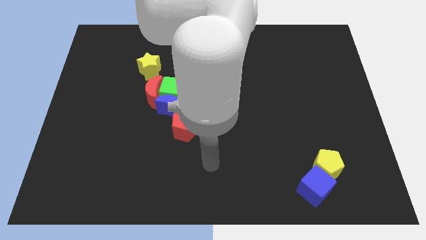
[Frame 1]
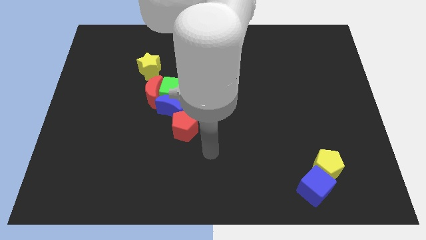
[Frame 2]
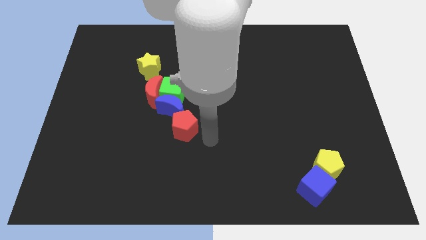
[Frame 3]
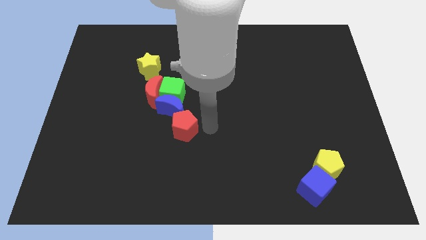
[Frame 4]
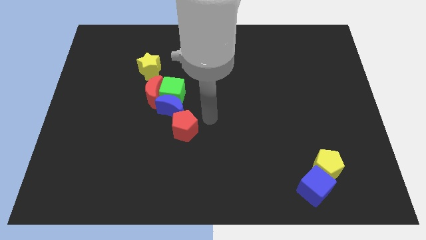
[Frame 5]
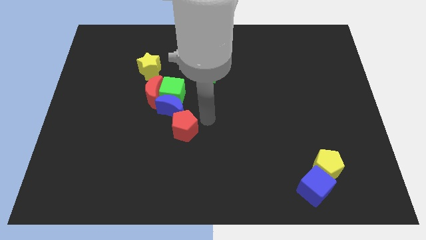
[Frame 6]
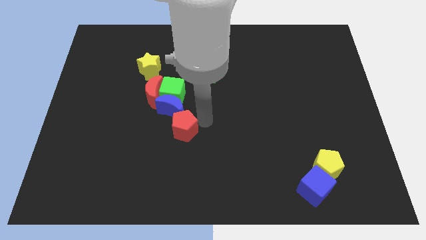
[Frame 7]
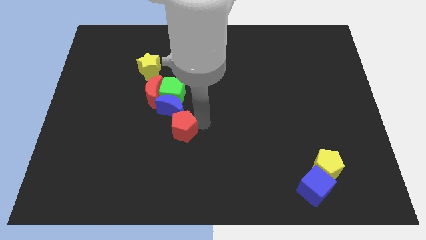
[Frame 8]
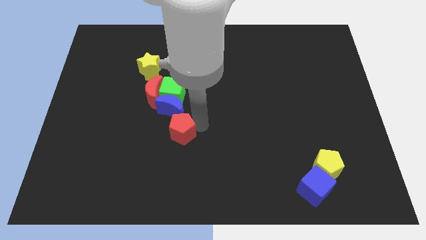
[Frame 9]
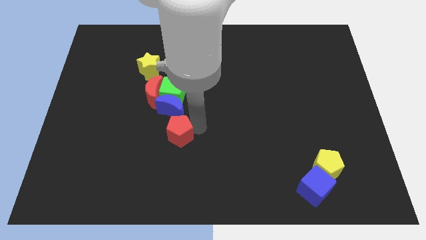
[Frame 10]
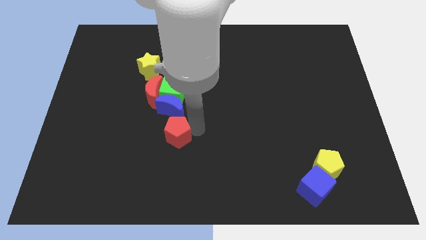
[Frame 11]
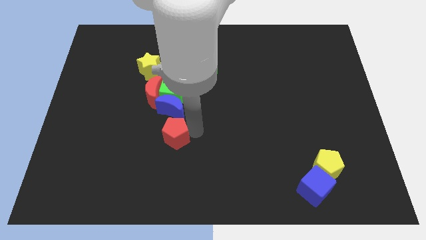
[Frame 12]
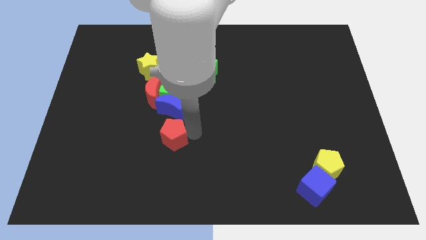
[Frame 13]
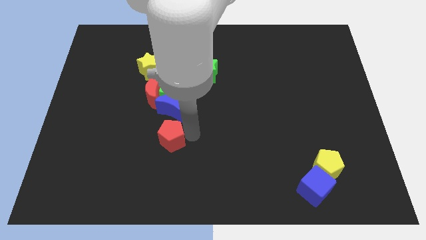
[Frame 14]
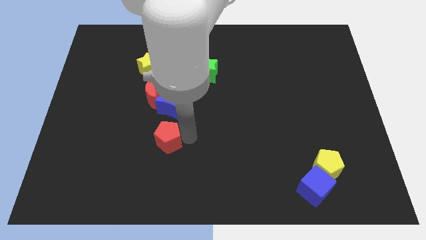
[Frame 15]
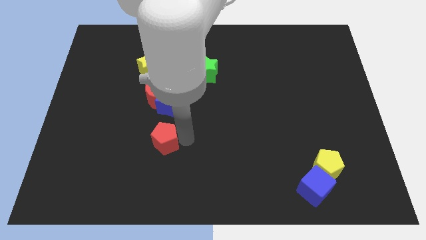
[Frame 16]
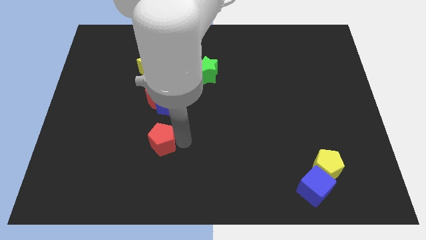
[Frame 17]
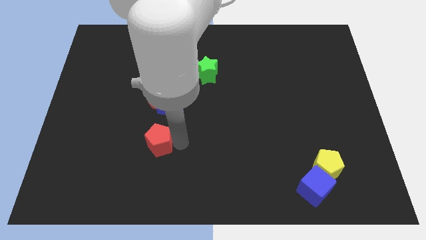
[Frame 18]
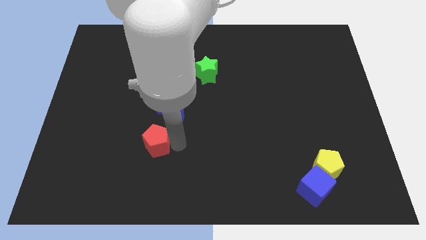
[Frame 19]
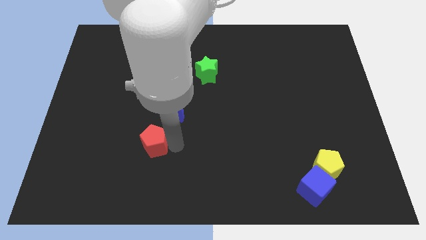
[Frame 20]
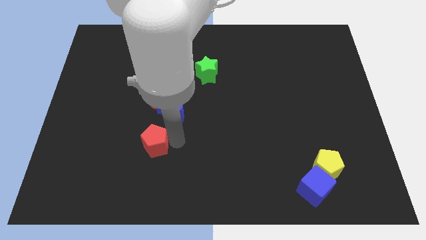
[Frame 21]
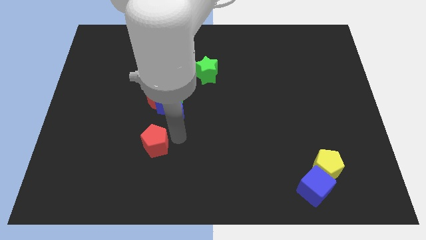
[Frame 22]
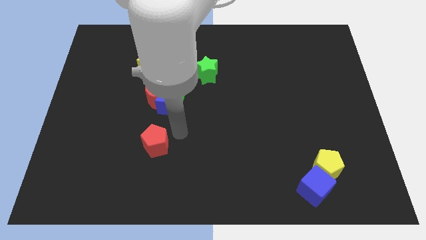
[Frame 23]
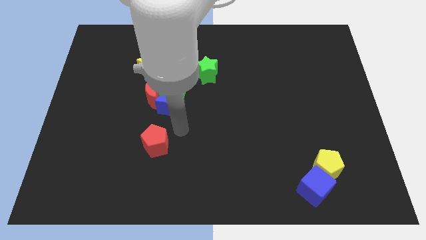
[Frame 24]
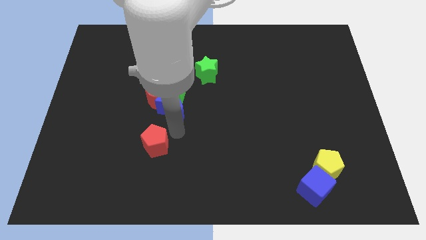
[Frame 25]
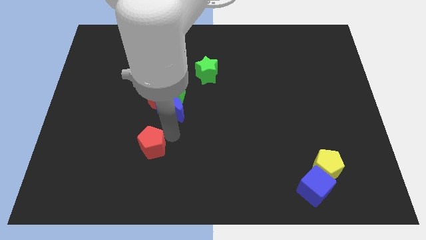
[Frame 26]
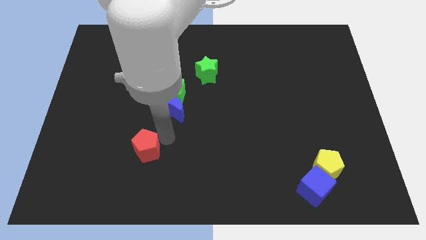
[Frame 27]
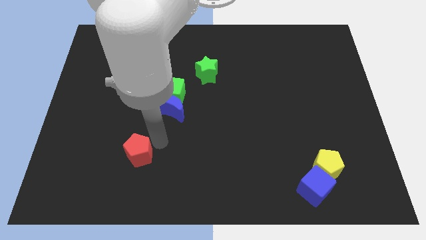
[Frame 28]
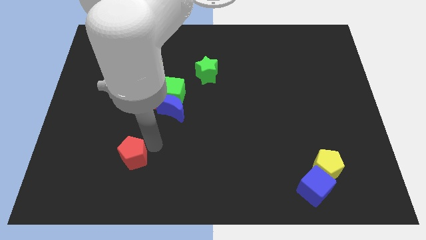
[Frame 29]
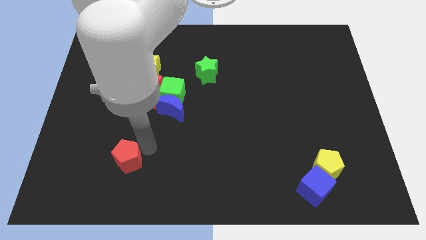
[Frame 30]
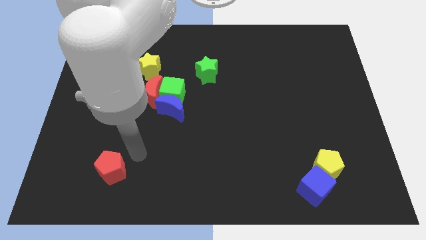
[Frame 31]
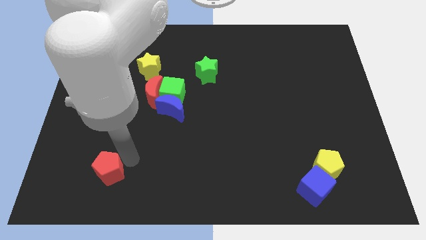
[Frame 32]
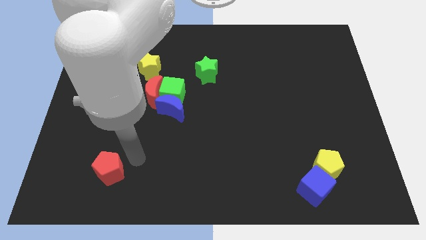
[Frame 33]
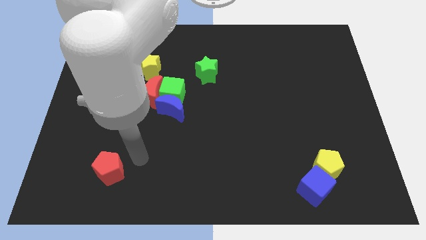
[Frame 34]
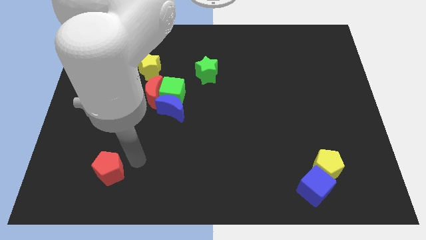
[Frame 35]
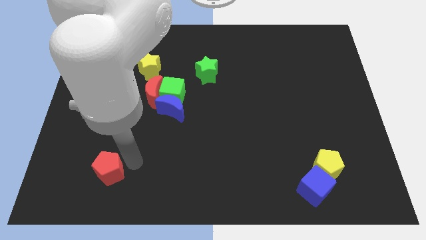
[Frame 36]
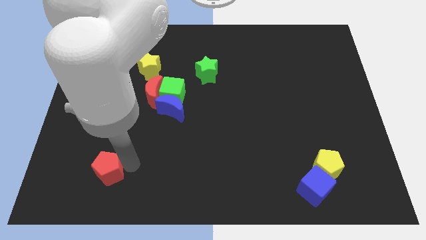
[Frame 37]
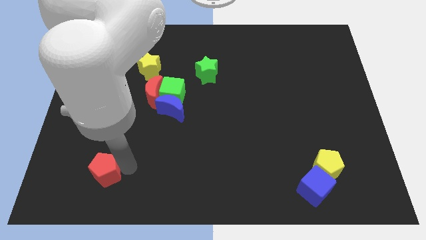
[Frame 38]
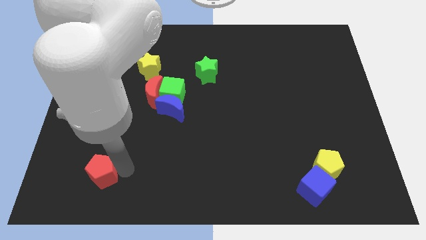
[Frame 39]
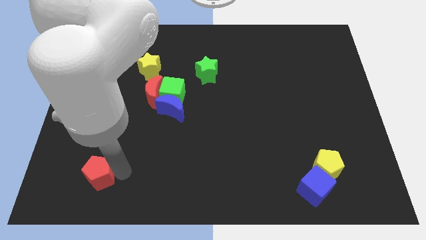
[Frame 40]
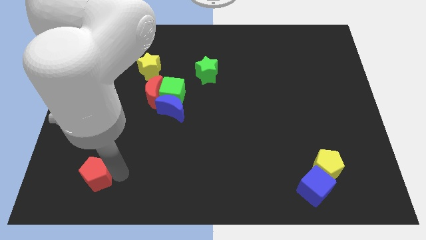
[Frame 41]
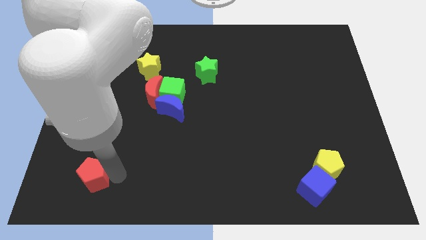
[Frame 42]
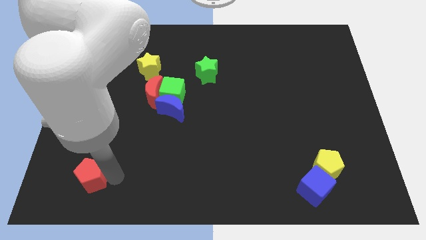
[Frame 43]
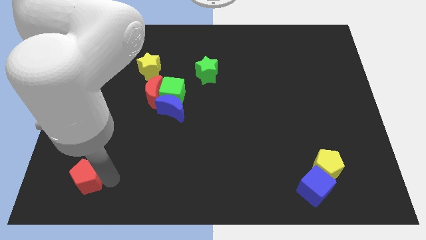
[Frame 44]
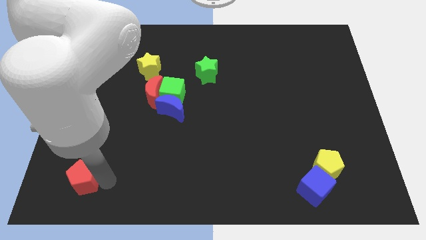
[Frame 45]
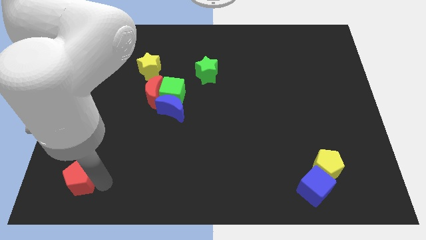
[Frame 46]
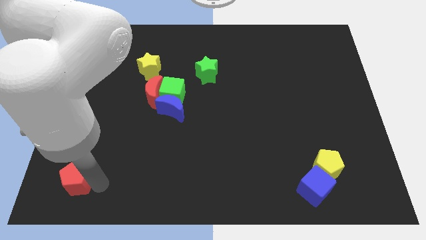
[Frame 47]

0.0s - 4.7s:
put the red pentagon to the lower left corner

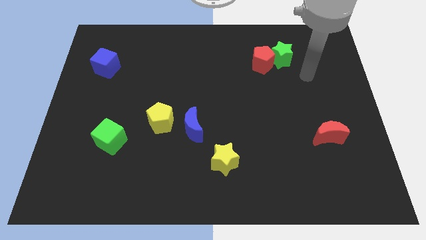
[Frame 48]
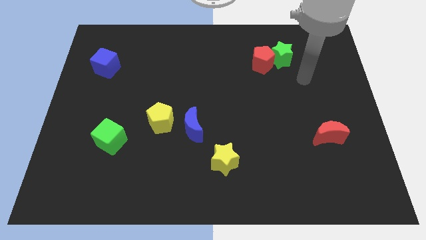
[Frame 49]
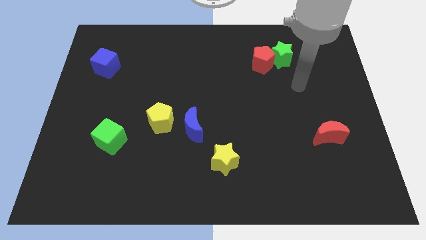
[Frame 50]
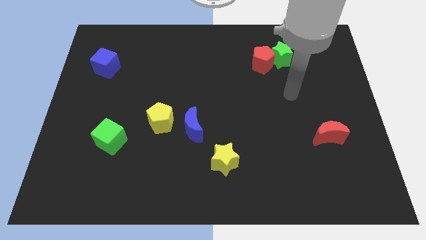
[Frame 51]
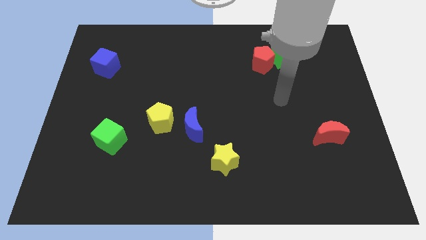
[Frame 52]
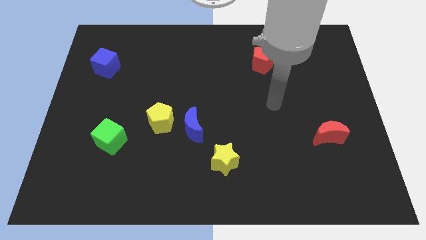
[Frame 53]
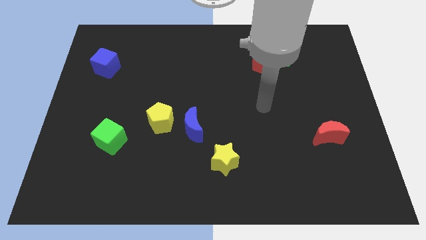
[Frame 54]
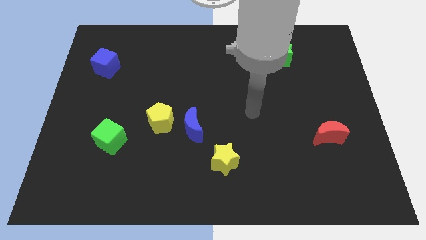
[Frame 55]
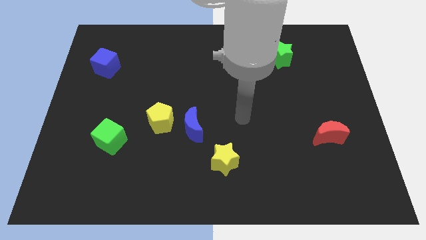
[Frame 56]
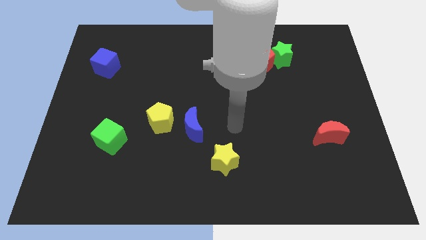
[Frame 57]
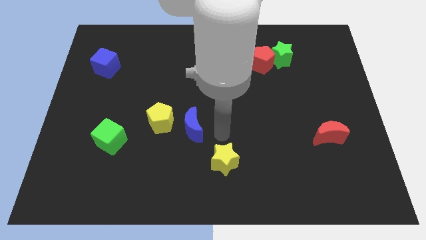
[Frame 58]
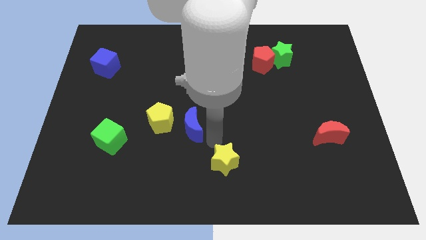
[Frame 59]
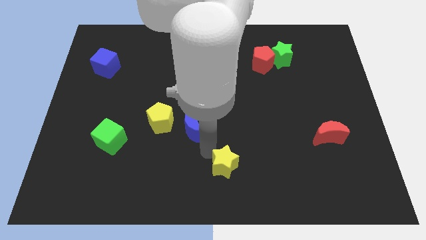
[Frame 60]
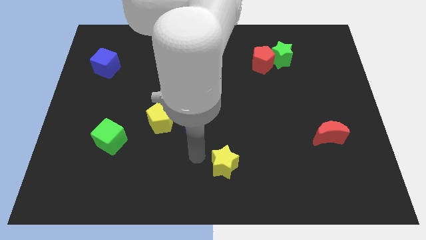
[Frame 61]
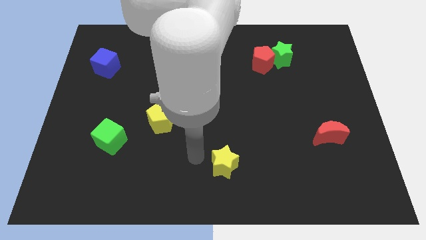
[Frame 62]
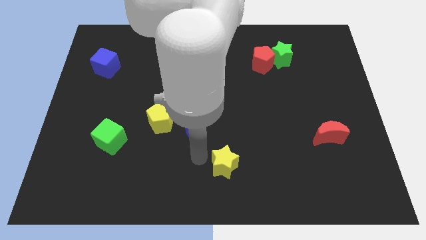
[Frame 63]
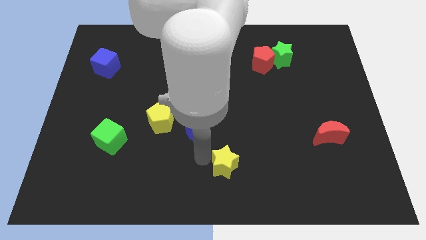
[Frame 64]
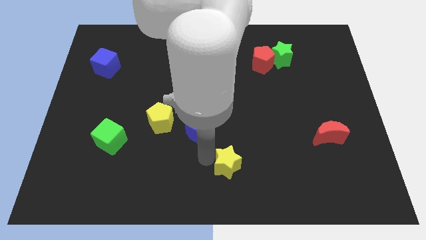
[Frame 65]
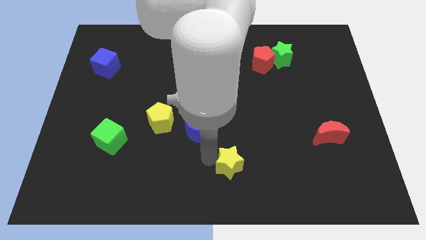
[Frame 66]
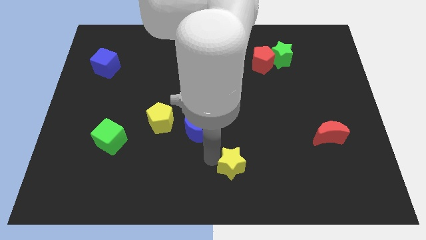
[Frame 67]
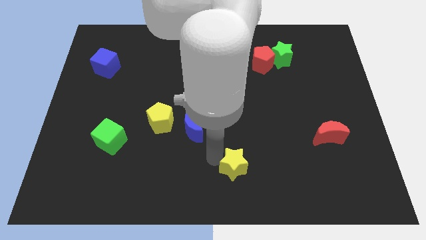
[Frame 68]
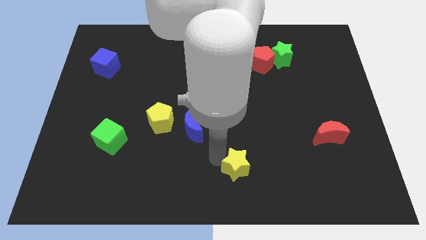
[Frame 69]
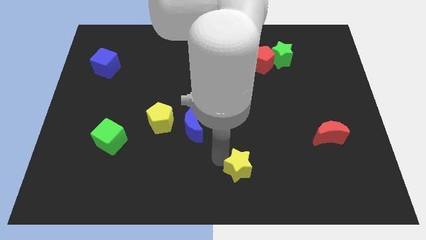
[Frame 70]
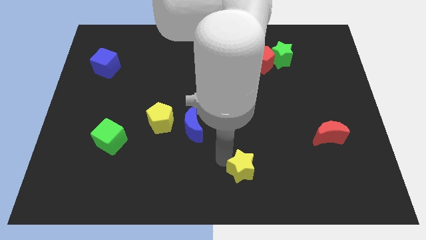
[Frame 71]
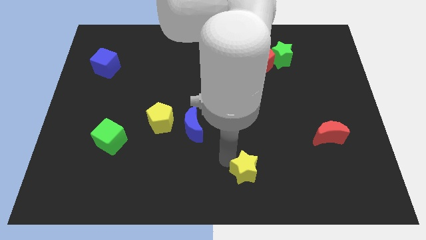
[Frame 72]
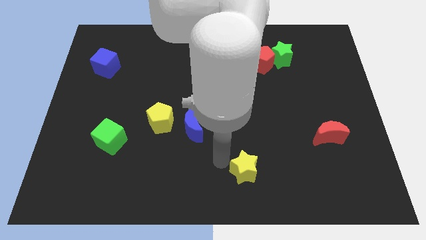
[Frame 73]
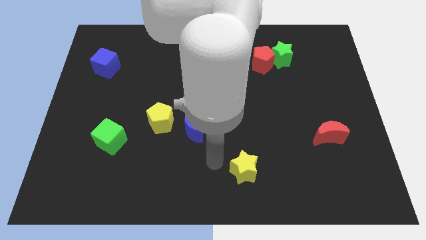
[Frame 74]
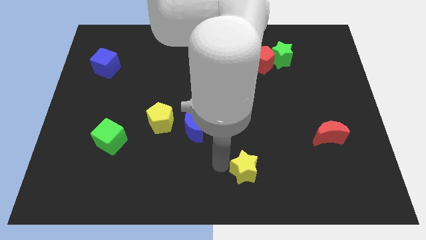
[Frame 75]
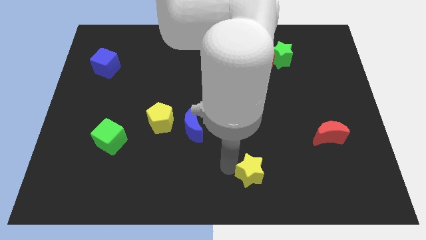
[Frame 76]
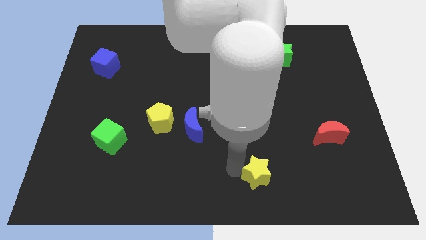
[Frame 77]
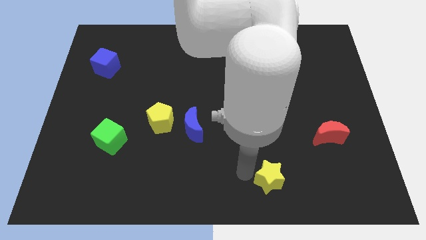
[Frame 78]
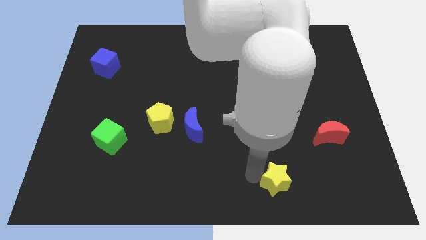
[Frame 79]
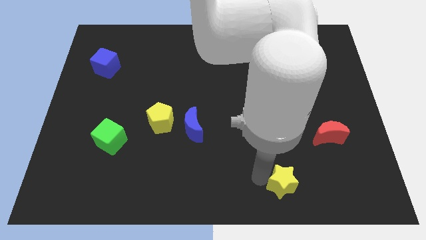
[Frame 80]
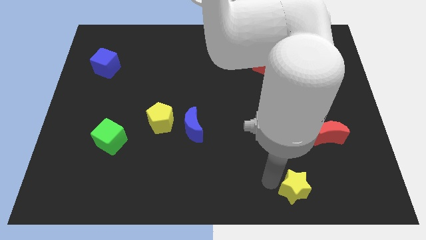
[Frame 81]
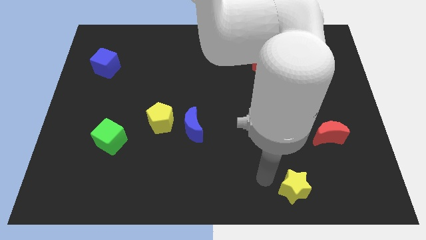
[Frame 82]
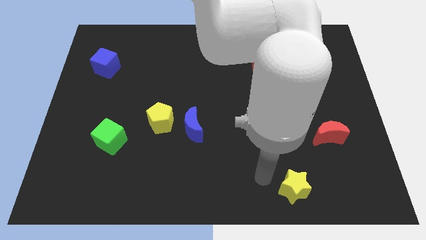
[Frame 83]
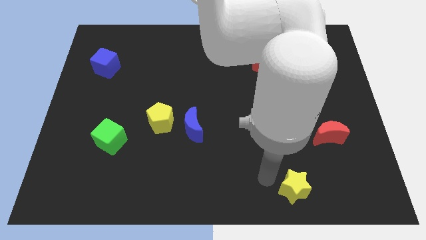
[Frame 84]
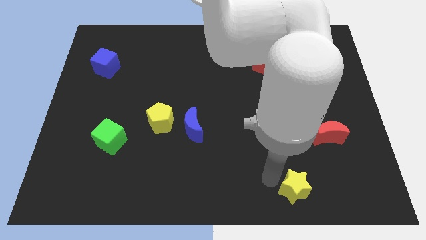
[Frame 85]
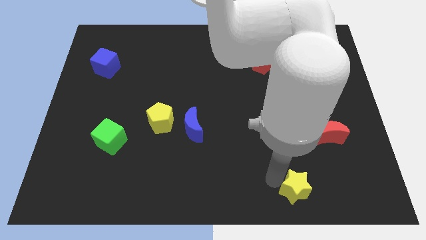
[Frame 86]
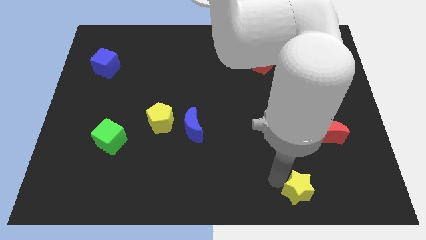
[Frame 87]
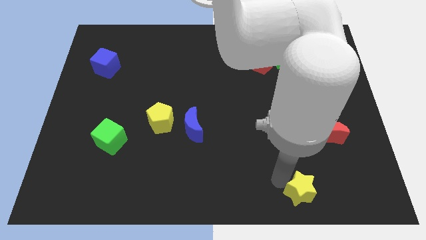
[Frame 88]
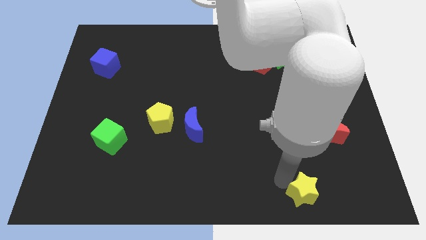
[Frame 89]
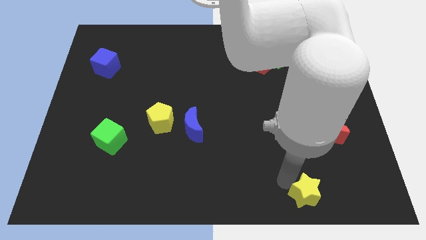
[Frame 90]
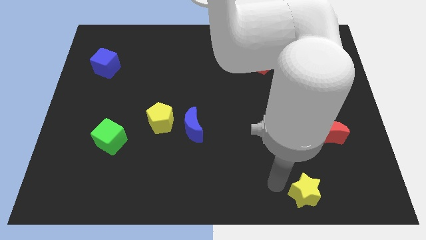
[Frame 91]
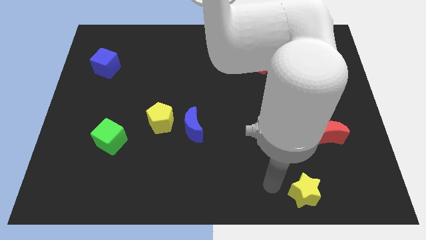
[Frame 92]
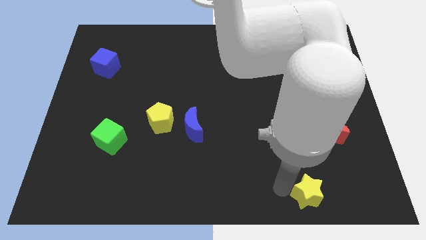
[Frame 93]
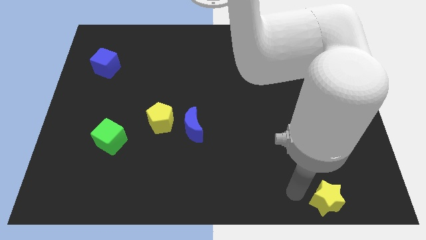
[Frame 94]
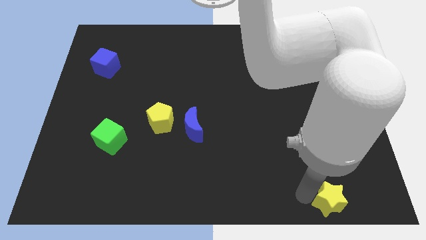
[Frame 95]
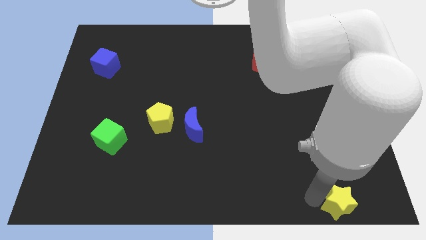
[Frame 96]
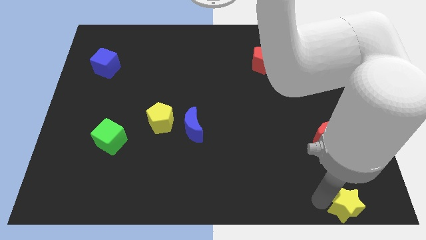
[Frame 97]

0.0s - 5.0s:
move the yellow star to the lower right corner
